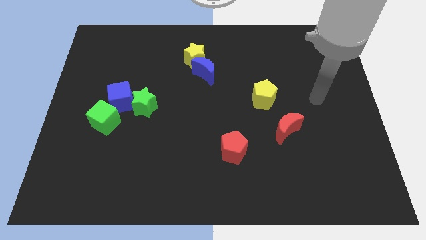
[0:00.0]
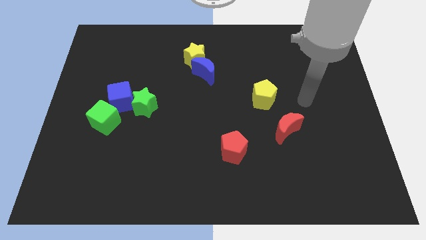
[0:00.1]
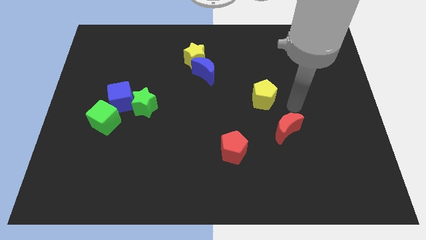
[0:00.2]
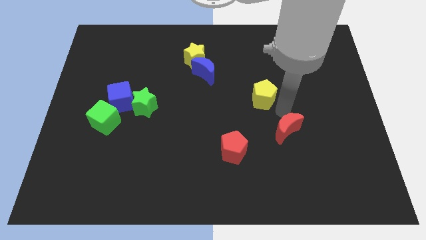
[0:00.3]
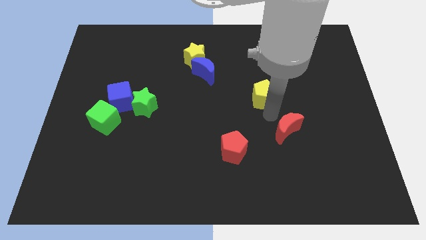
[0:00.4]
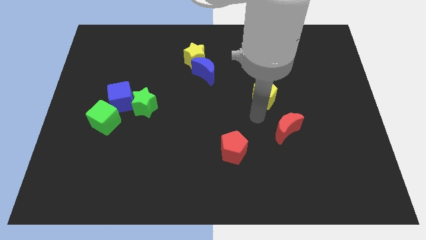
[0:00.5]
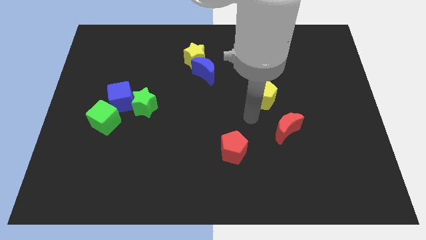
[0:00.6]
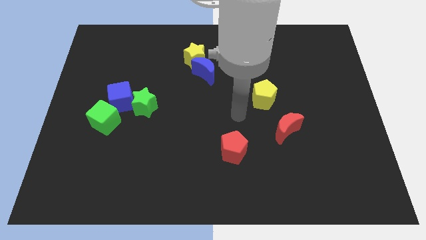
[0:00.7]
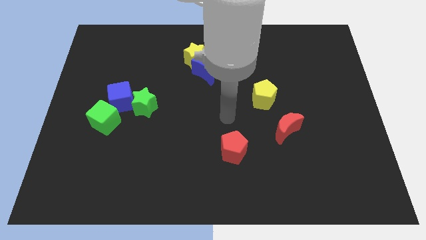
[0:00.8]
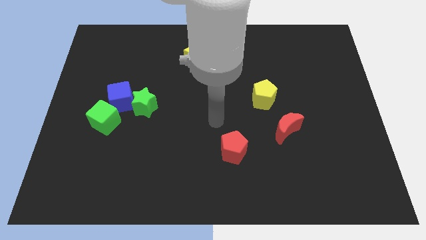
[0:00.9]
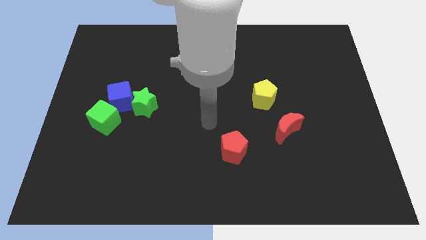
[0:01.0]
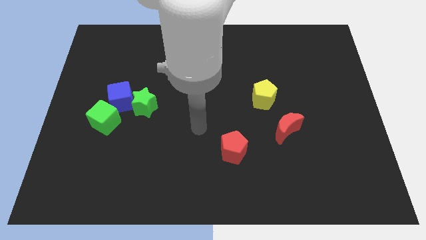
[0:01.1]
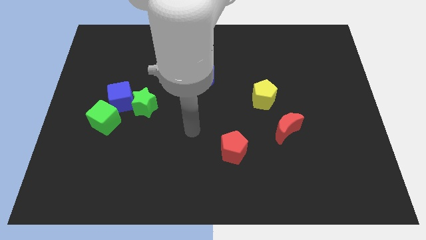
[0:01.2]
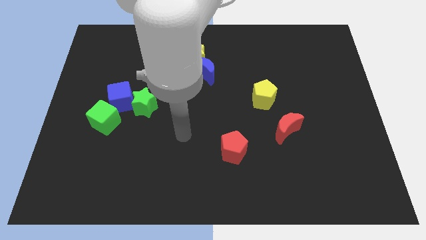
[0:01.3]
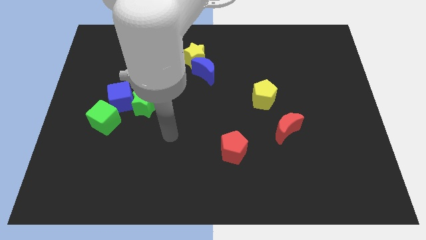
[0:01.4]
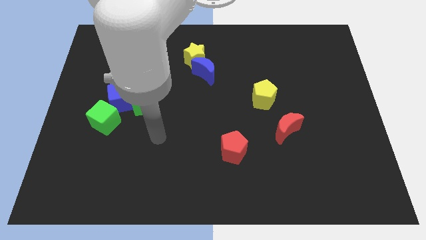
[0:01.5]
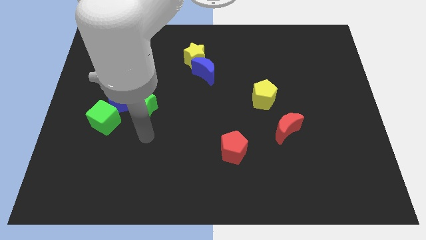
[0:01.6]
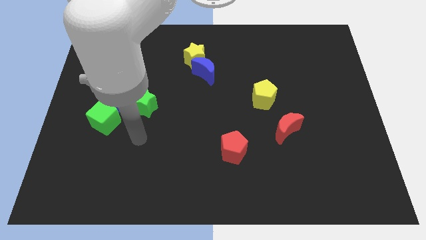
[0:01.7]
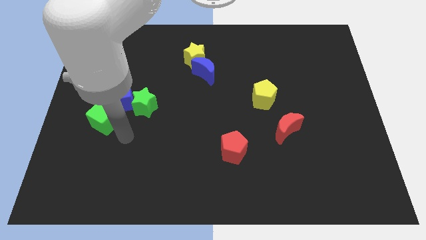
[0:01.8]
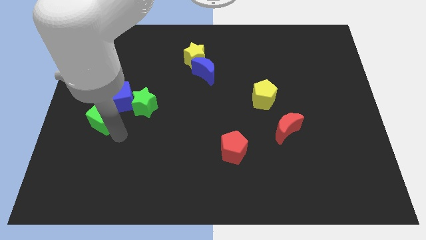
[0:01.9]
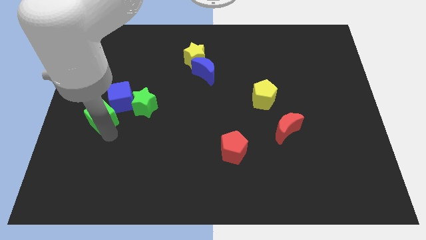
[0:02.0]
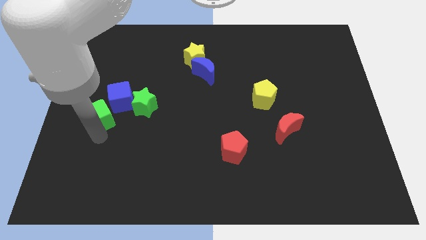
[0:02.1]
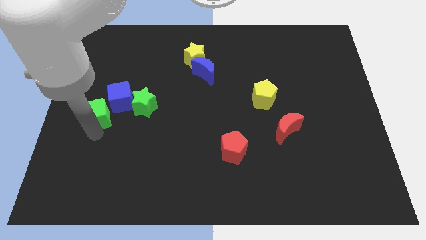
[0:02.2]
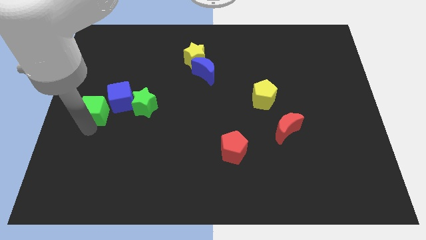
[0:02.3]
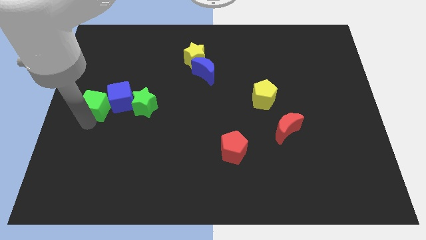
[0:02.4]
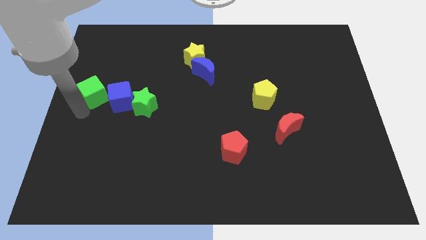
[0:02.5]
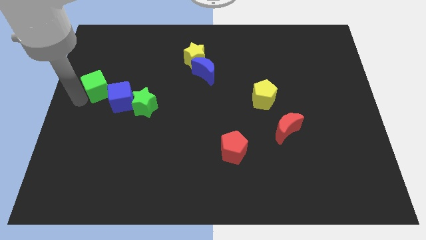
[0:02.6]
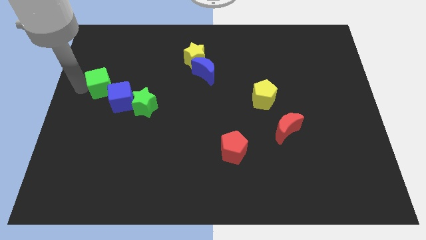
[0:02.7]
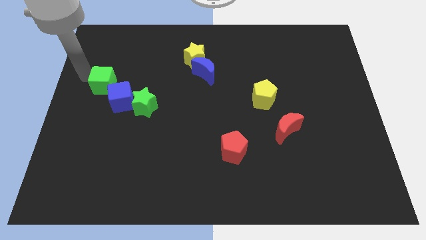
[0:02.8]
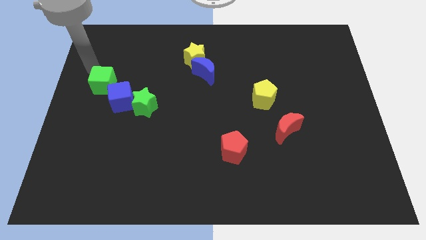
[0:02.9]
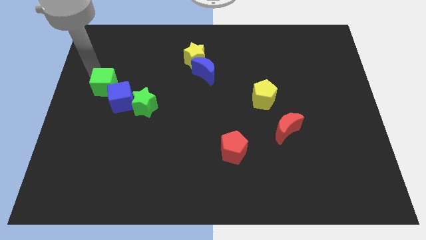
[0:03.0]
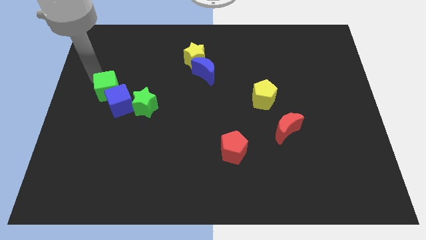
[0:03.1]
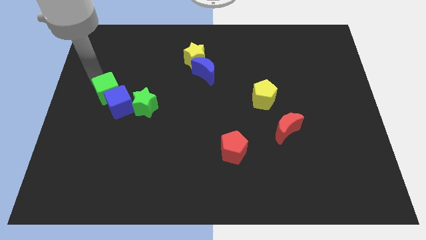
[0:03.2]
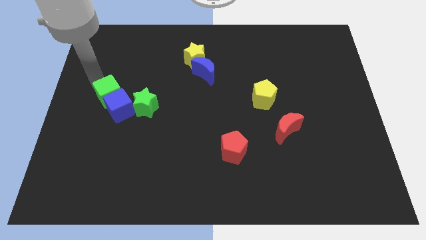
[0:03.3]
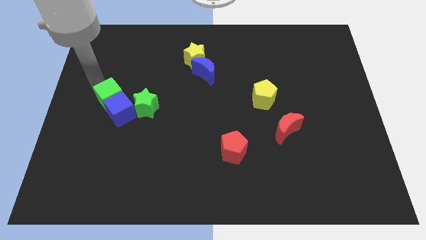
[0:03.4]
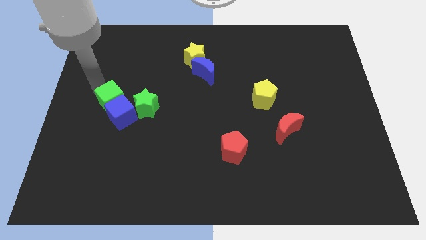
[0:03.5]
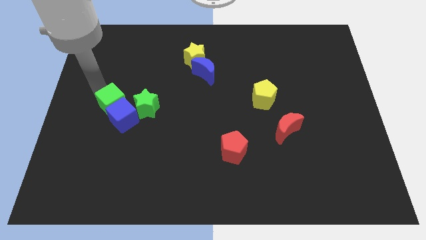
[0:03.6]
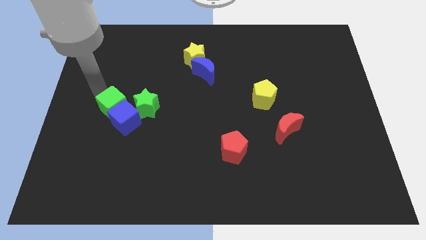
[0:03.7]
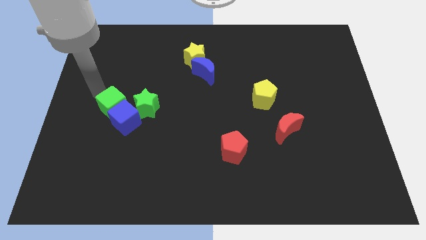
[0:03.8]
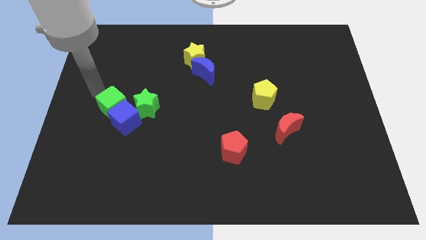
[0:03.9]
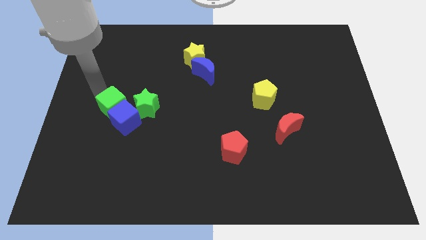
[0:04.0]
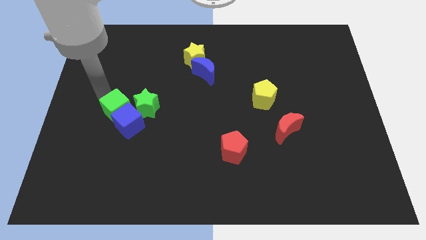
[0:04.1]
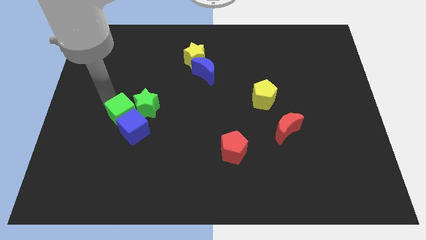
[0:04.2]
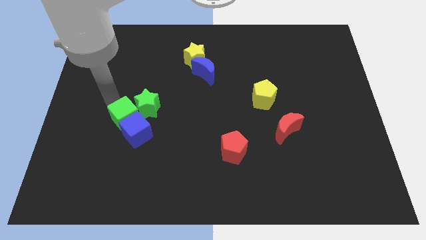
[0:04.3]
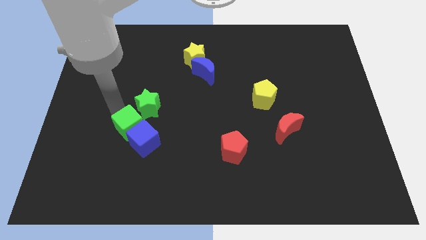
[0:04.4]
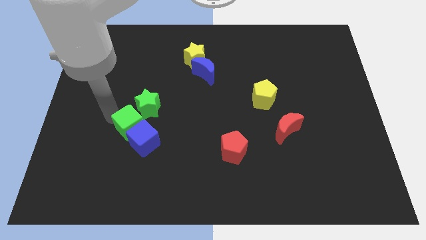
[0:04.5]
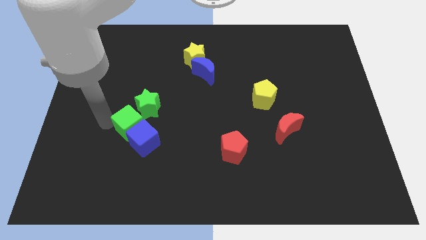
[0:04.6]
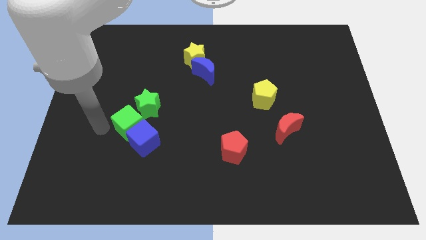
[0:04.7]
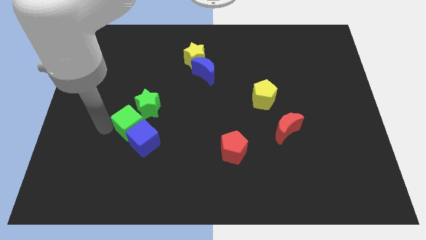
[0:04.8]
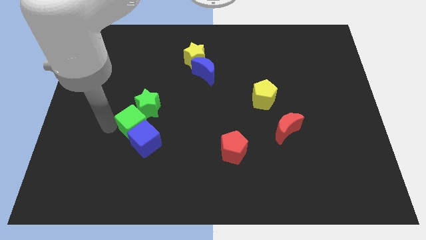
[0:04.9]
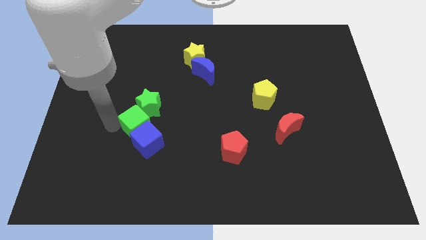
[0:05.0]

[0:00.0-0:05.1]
slightly slide the green cube to the right

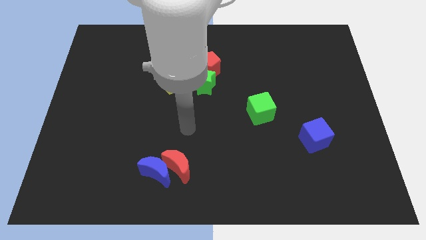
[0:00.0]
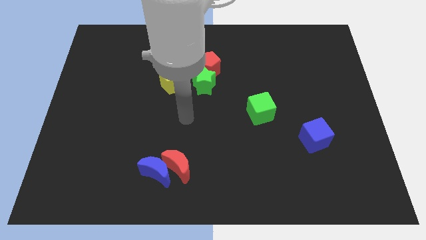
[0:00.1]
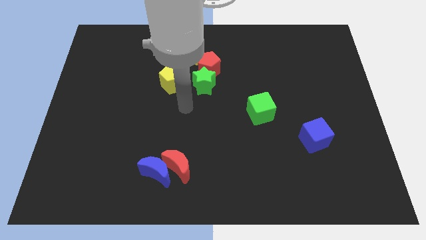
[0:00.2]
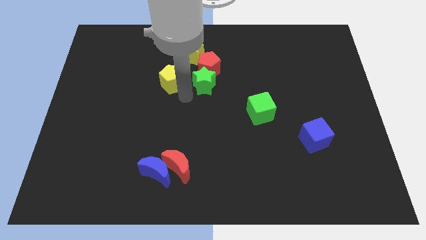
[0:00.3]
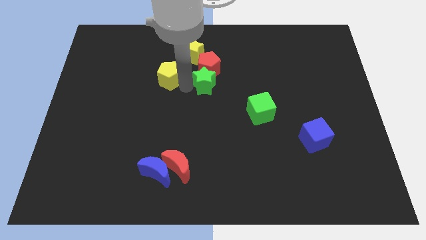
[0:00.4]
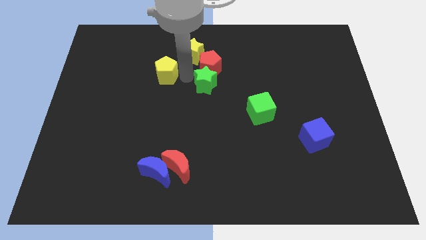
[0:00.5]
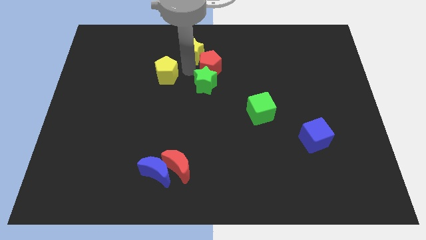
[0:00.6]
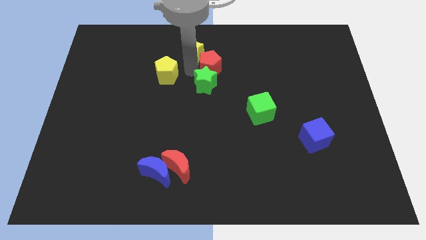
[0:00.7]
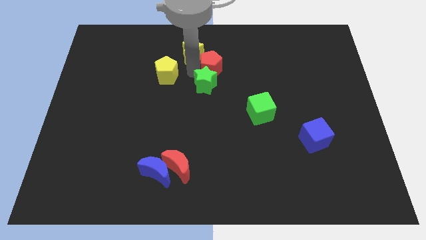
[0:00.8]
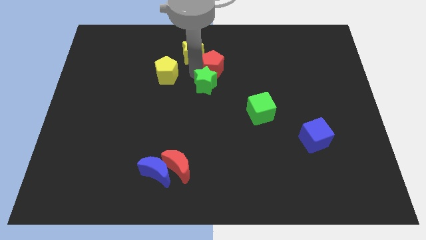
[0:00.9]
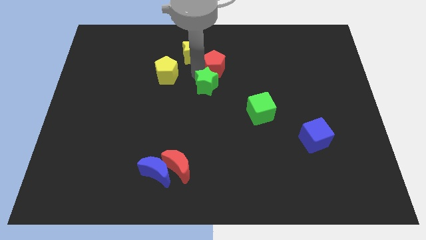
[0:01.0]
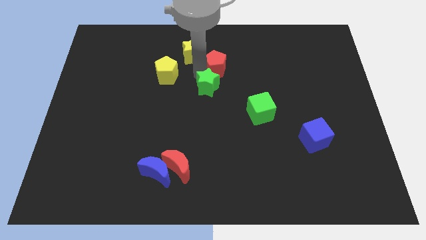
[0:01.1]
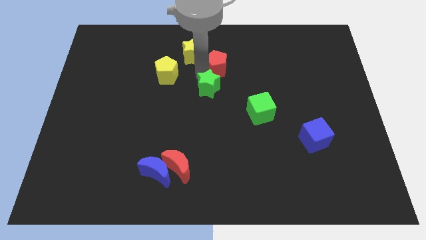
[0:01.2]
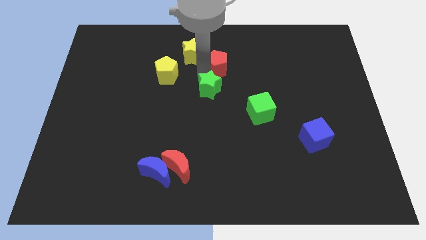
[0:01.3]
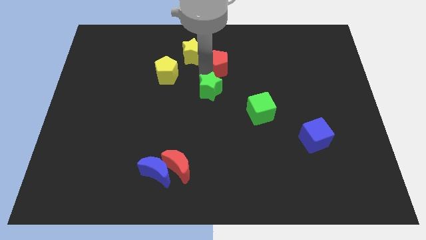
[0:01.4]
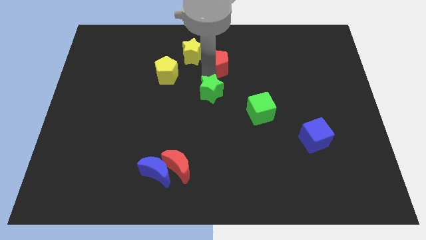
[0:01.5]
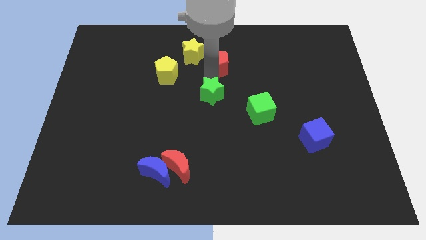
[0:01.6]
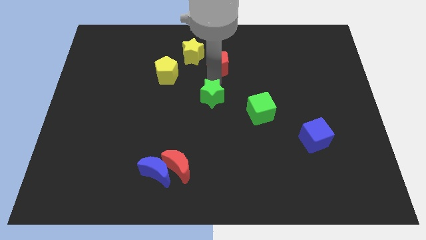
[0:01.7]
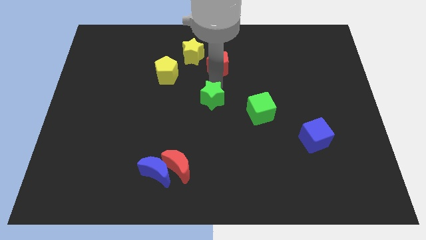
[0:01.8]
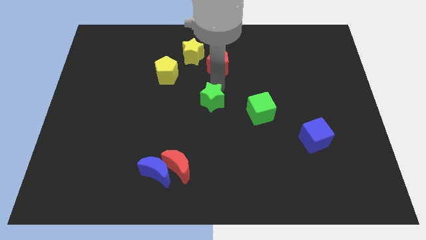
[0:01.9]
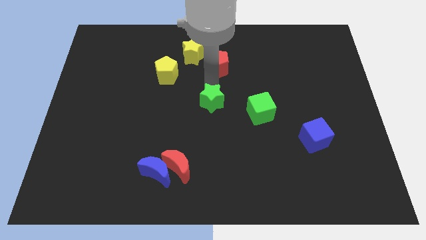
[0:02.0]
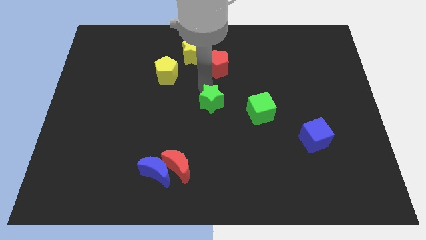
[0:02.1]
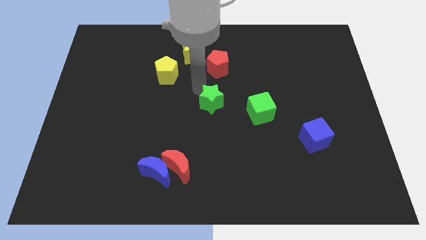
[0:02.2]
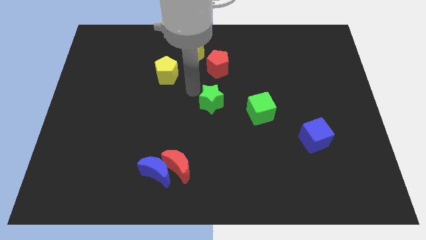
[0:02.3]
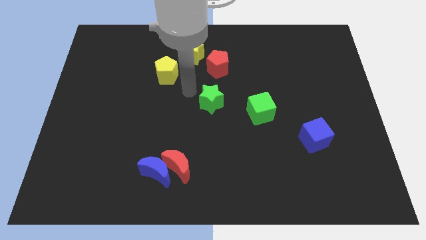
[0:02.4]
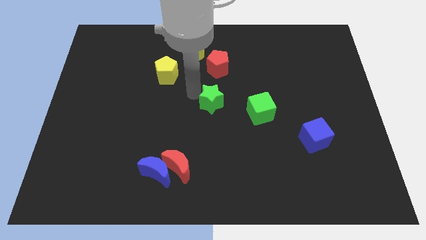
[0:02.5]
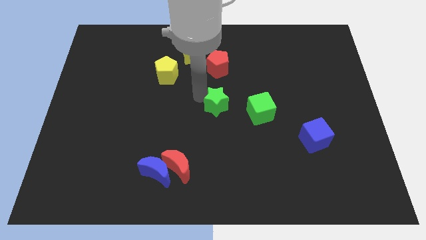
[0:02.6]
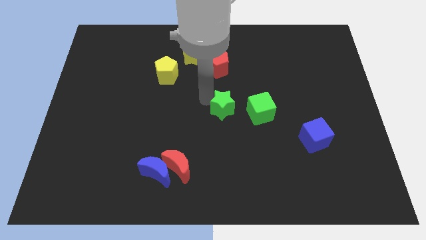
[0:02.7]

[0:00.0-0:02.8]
slightly move the green star downwards and to the right

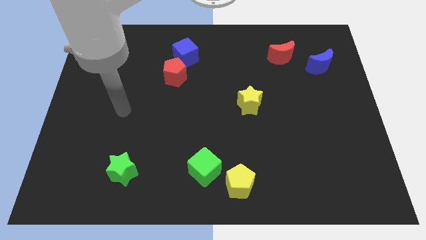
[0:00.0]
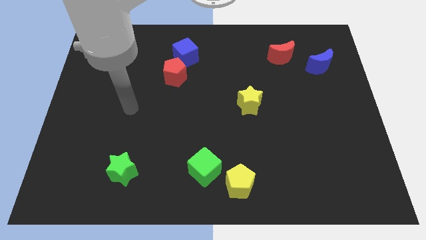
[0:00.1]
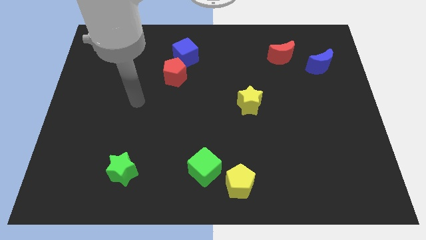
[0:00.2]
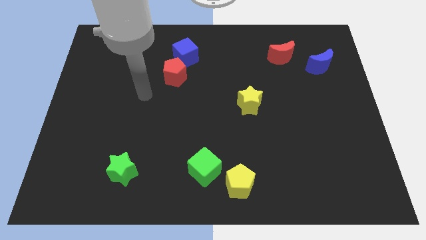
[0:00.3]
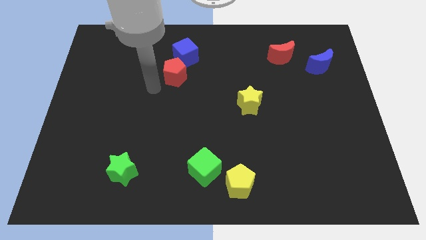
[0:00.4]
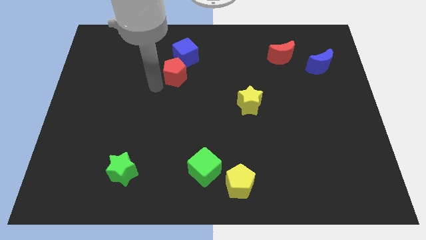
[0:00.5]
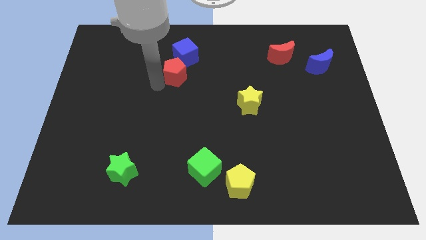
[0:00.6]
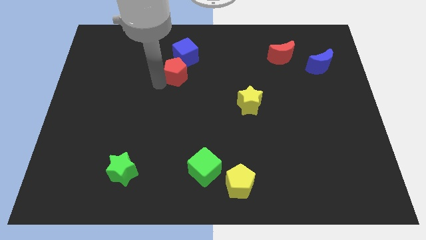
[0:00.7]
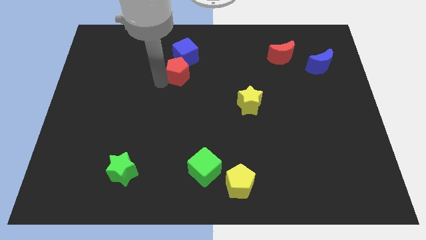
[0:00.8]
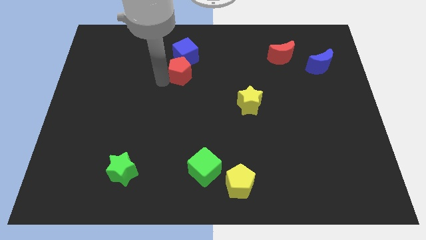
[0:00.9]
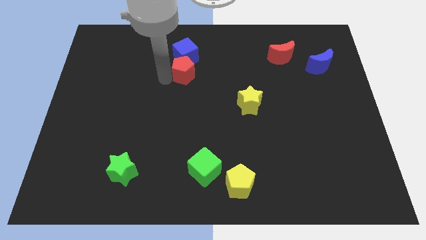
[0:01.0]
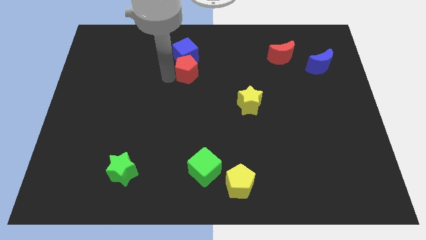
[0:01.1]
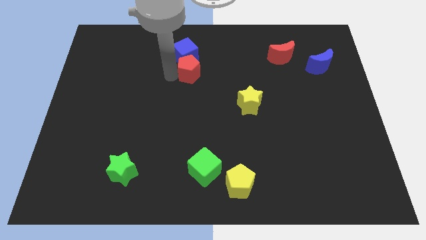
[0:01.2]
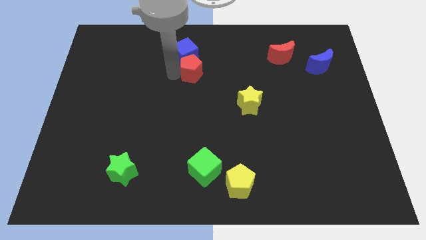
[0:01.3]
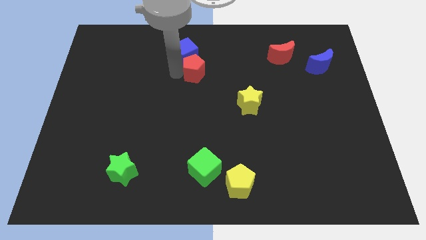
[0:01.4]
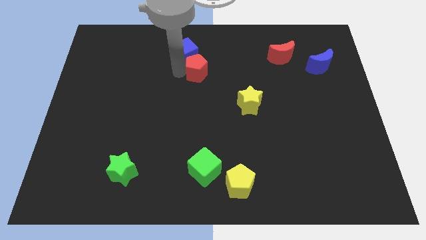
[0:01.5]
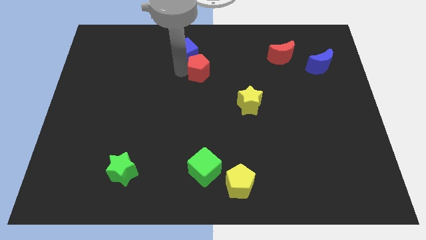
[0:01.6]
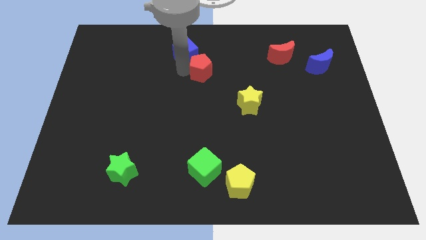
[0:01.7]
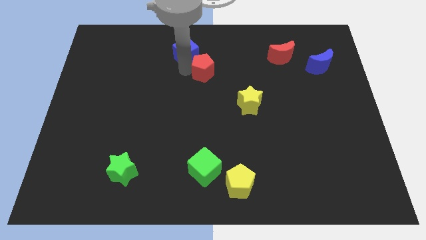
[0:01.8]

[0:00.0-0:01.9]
push the red pentagon right slightly
